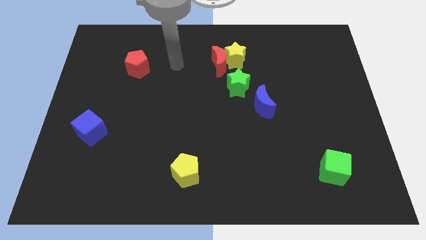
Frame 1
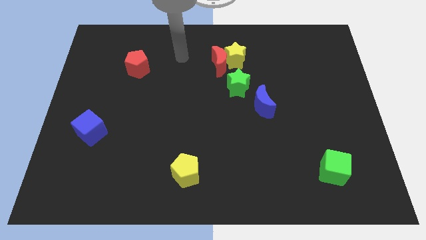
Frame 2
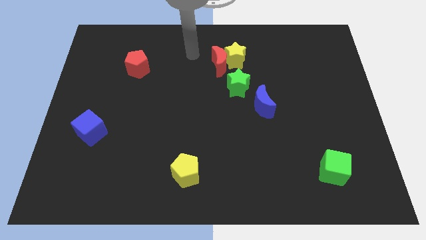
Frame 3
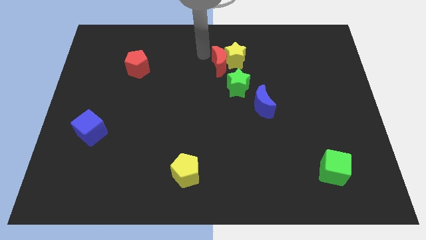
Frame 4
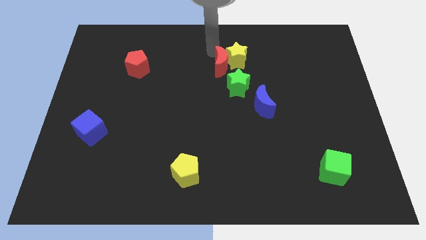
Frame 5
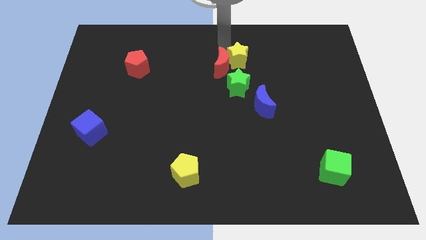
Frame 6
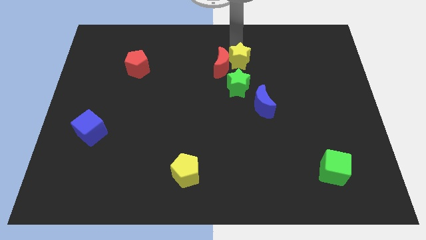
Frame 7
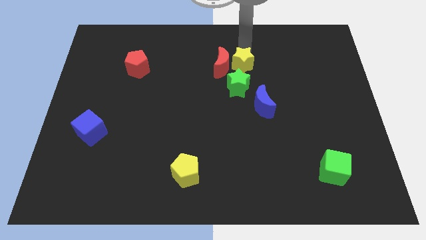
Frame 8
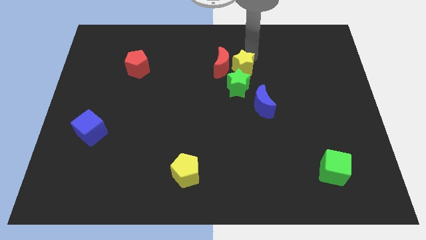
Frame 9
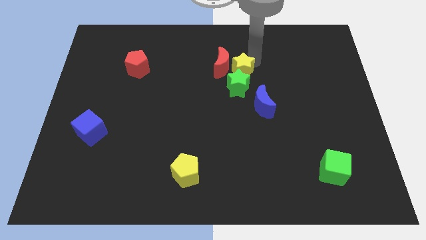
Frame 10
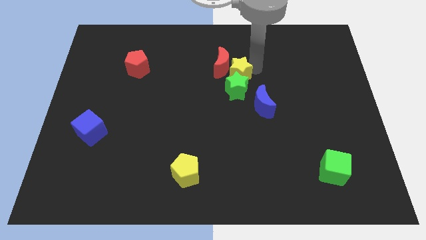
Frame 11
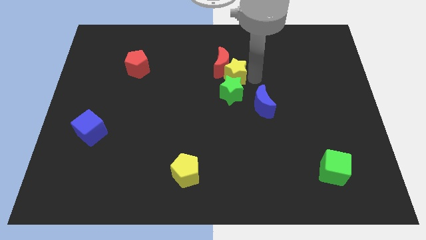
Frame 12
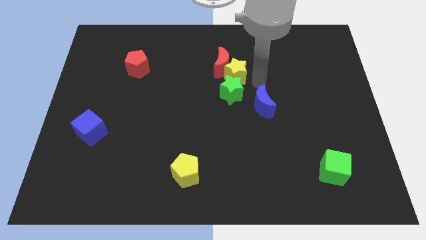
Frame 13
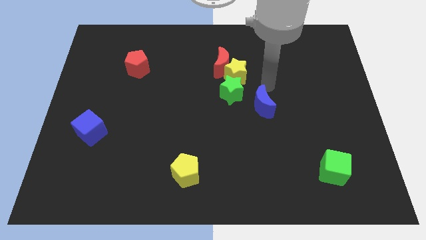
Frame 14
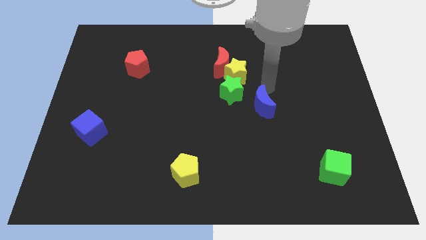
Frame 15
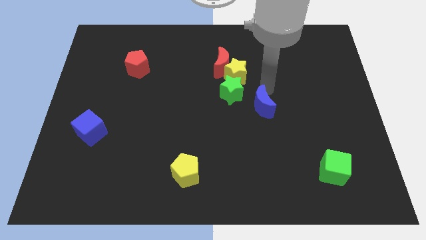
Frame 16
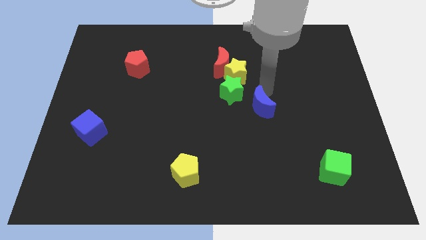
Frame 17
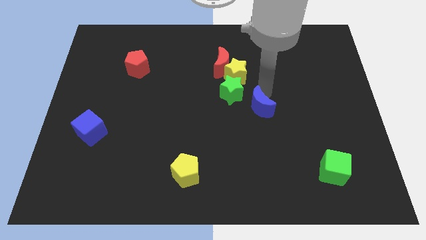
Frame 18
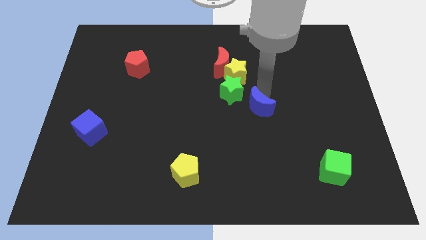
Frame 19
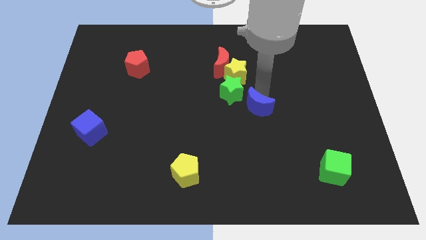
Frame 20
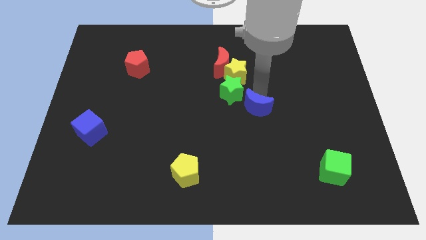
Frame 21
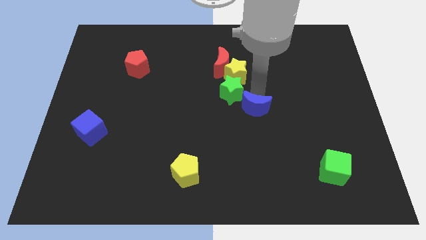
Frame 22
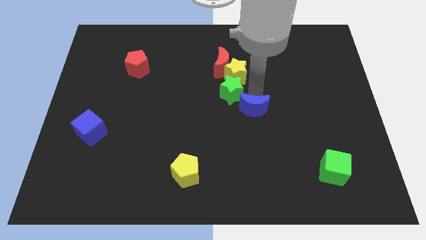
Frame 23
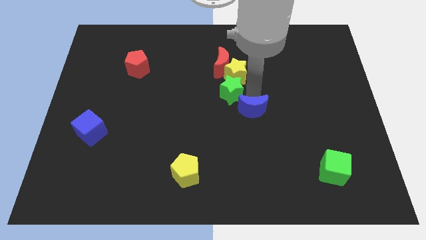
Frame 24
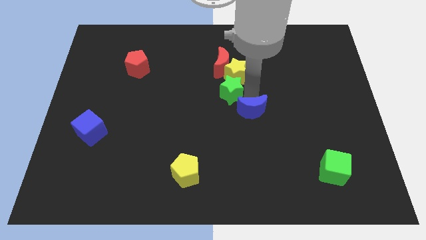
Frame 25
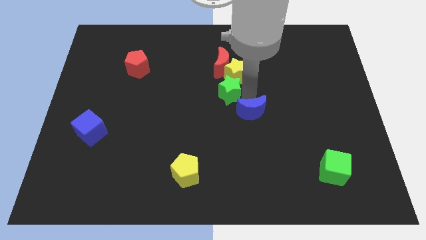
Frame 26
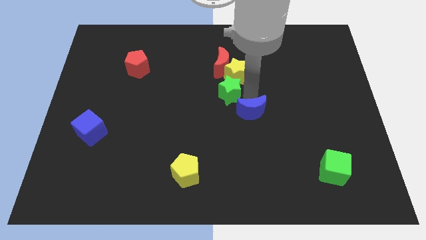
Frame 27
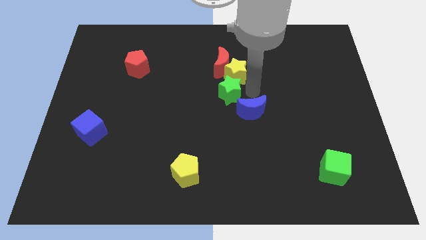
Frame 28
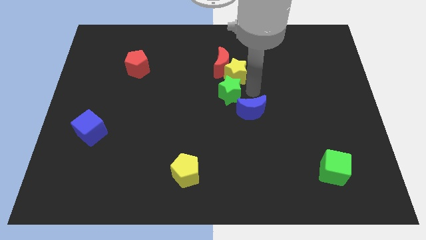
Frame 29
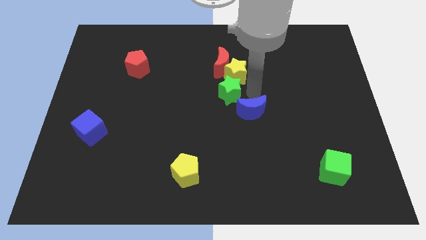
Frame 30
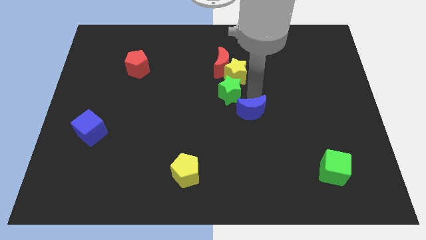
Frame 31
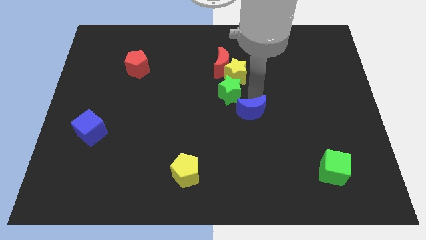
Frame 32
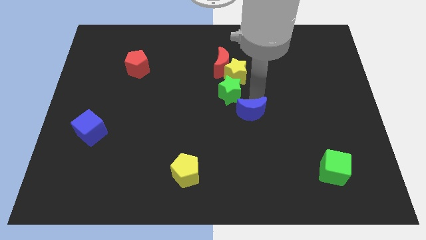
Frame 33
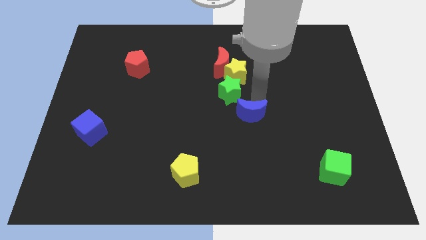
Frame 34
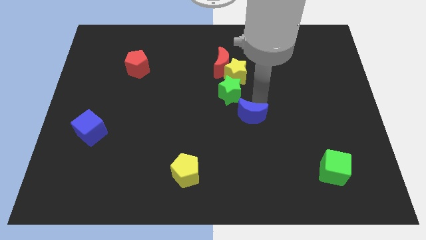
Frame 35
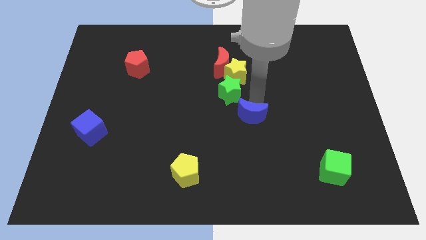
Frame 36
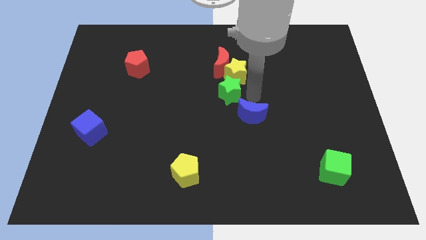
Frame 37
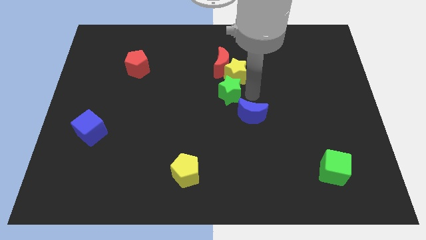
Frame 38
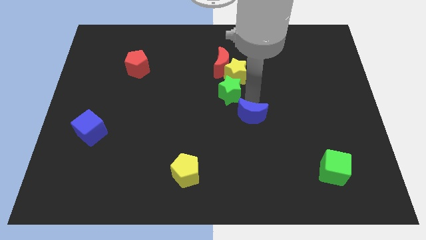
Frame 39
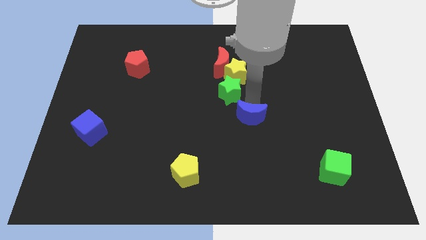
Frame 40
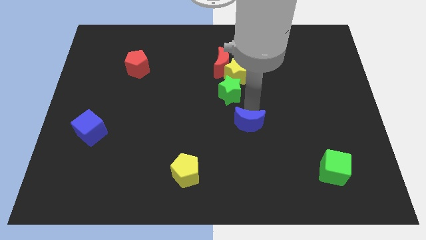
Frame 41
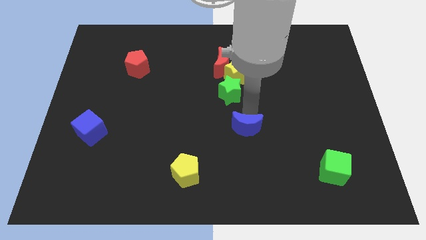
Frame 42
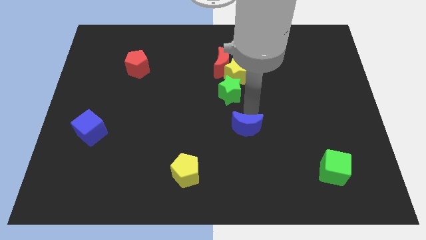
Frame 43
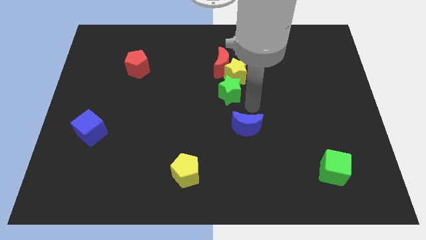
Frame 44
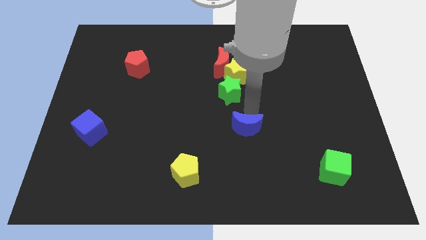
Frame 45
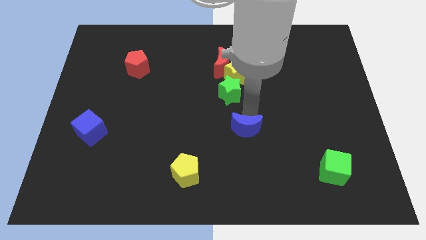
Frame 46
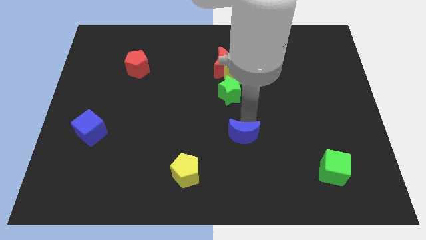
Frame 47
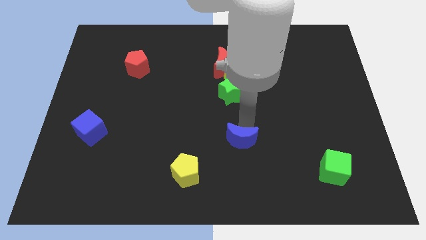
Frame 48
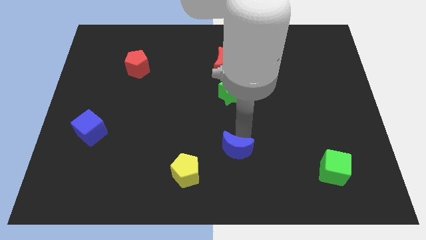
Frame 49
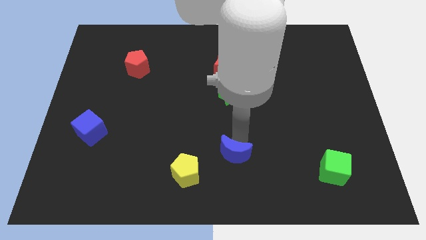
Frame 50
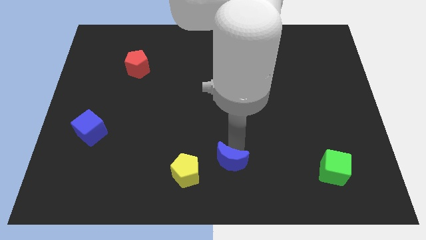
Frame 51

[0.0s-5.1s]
move the blue moon to the bottom side

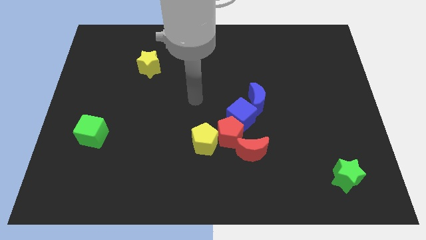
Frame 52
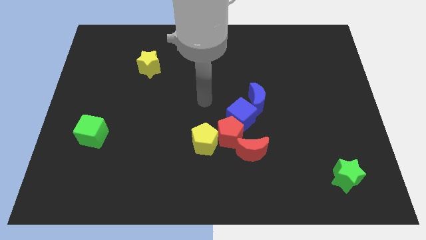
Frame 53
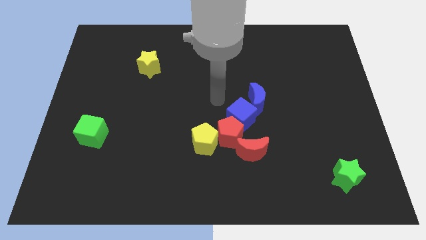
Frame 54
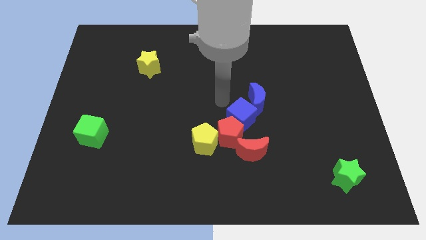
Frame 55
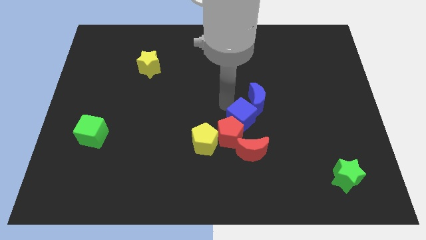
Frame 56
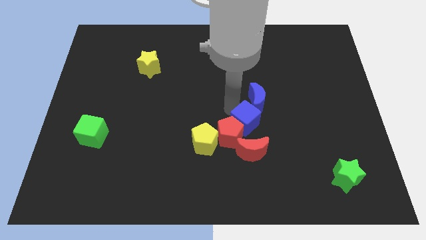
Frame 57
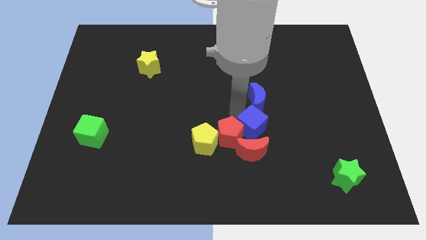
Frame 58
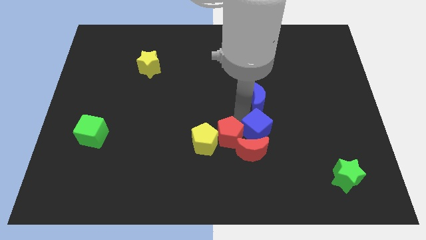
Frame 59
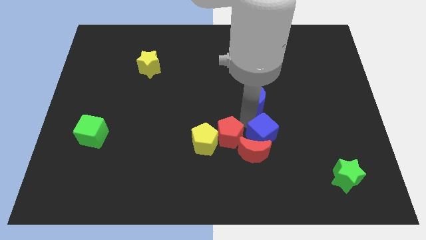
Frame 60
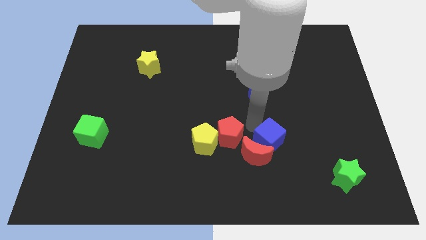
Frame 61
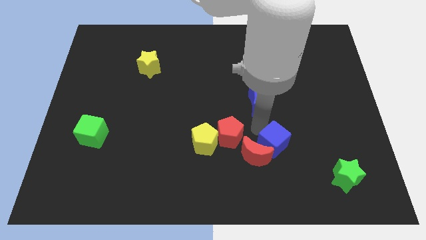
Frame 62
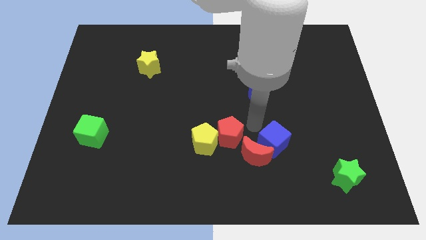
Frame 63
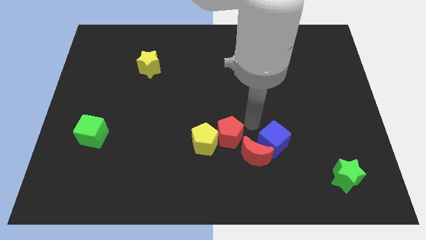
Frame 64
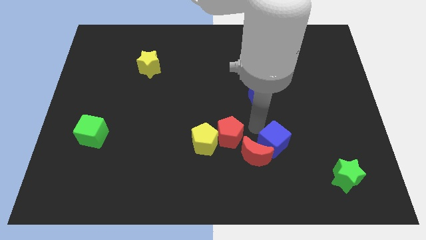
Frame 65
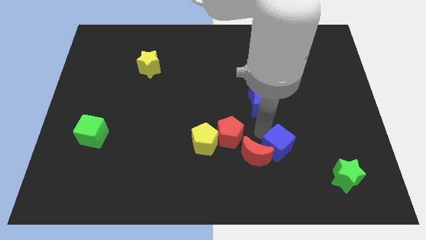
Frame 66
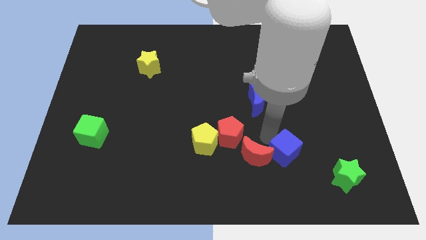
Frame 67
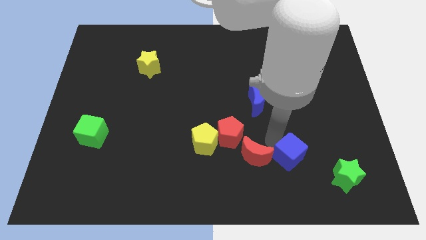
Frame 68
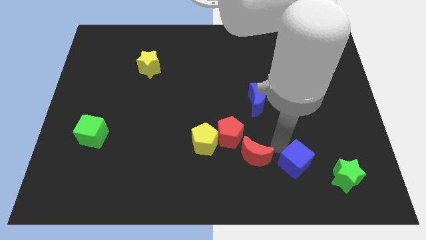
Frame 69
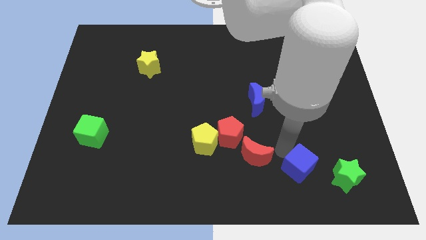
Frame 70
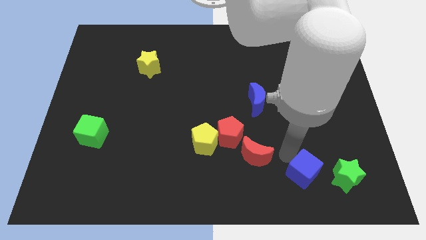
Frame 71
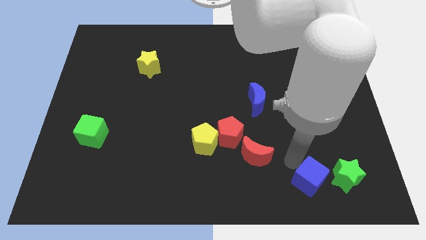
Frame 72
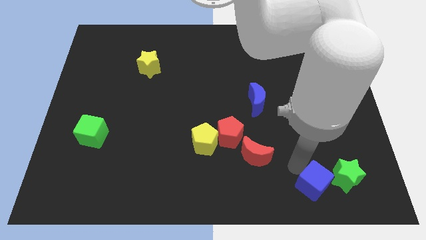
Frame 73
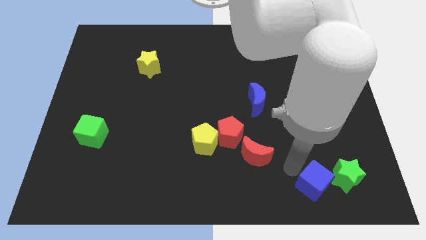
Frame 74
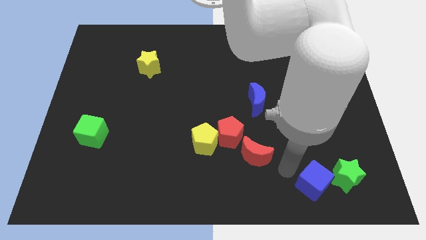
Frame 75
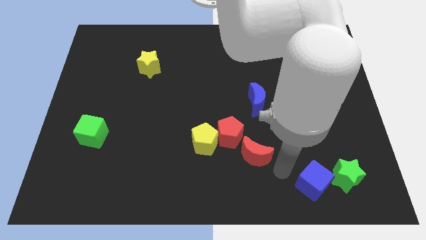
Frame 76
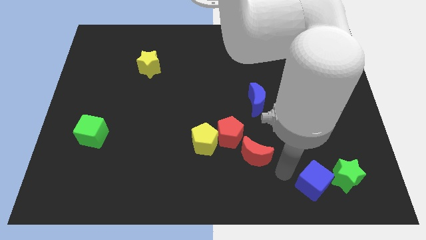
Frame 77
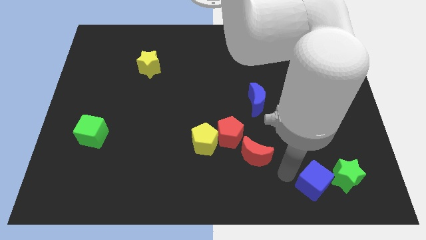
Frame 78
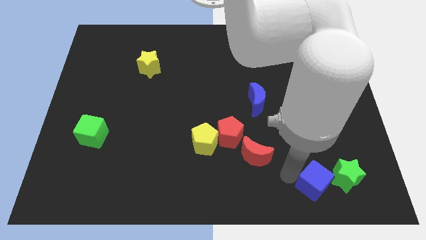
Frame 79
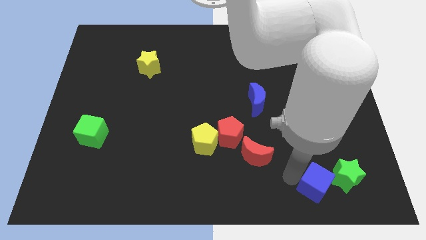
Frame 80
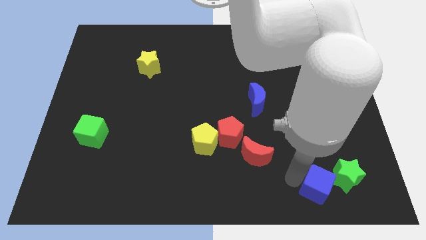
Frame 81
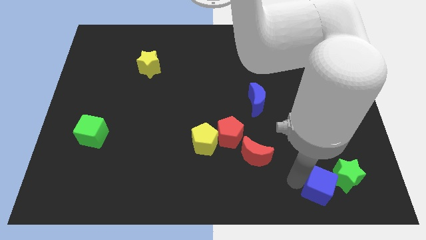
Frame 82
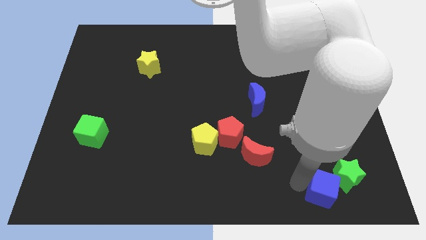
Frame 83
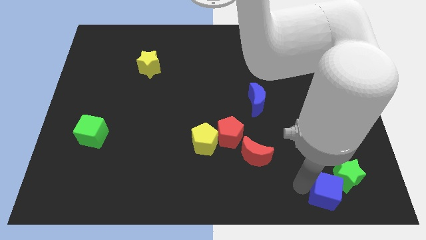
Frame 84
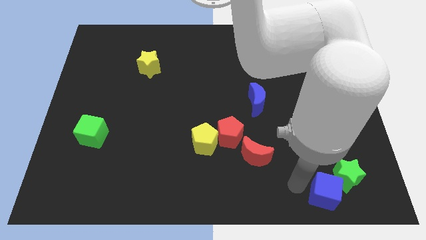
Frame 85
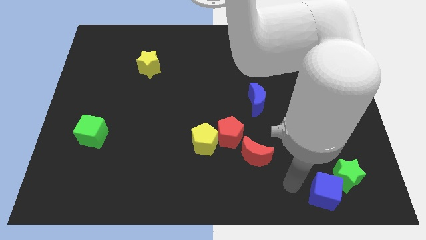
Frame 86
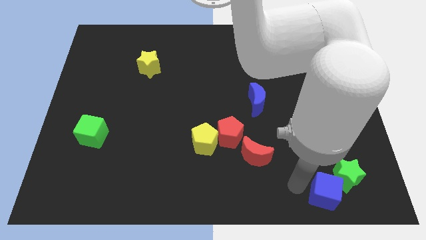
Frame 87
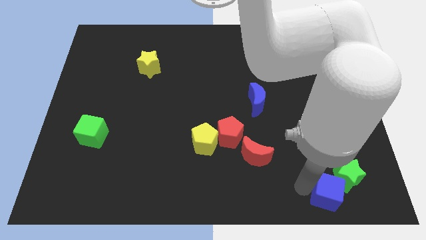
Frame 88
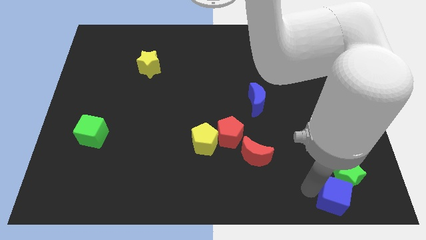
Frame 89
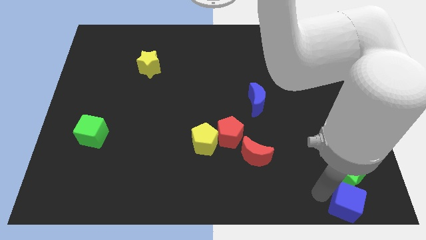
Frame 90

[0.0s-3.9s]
push the blue cube to the bottom right corner
